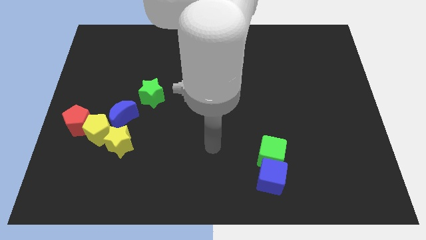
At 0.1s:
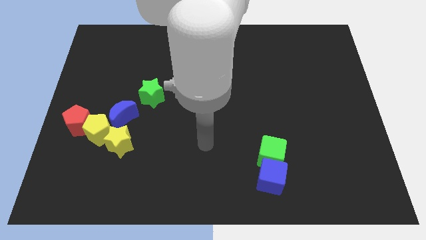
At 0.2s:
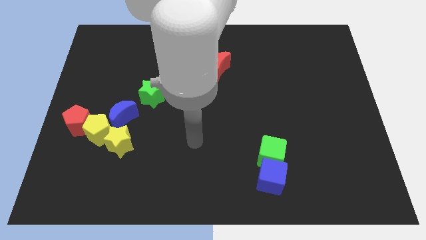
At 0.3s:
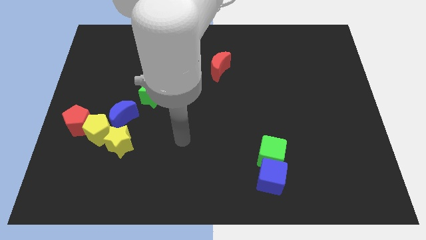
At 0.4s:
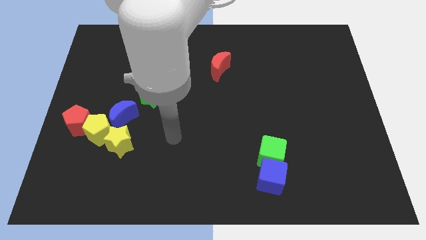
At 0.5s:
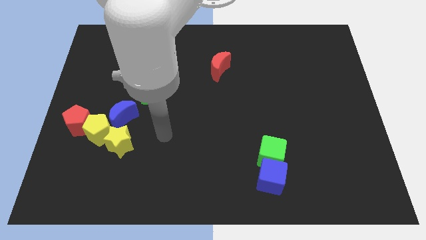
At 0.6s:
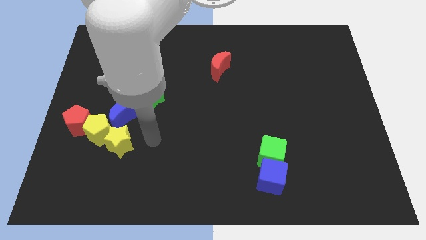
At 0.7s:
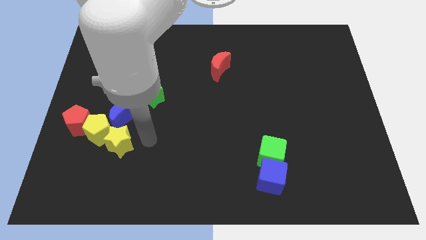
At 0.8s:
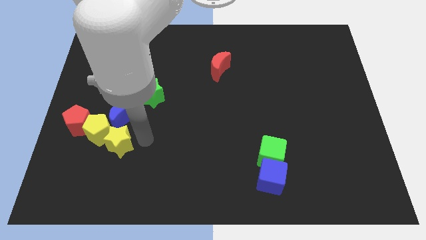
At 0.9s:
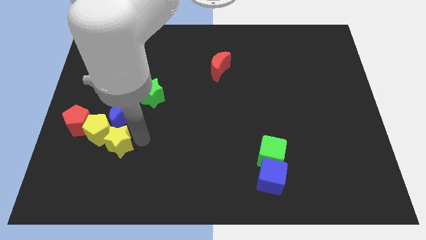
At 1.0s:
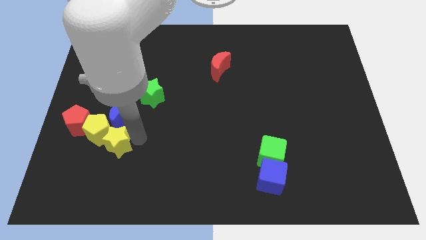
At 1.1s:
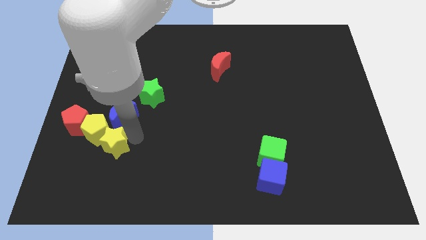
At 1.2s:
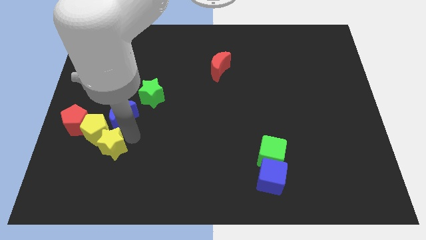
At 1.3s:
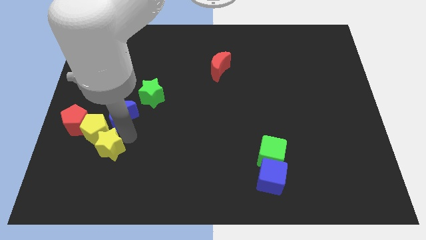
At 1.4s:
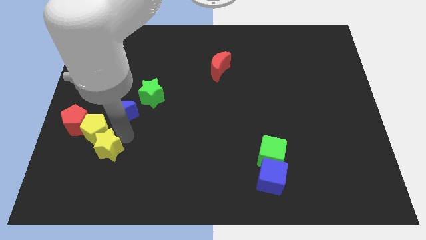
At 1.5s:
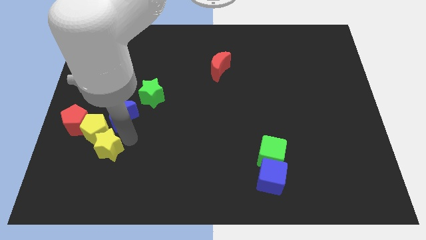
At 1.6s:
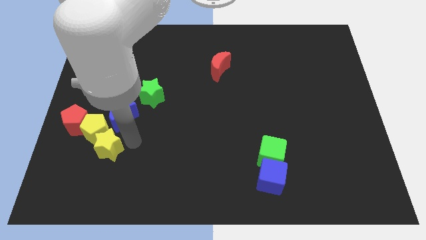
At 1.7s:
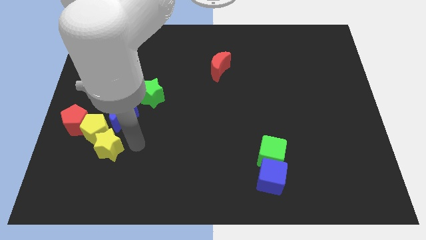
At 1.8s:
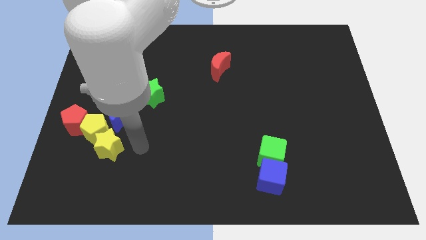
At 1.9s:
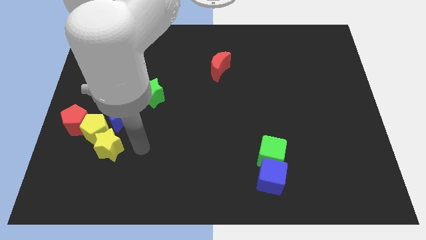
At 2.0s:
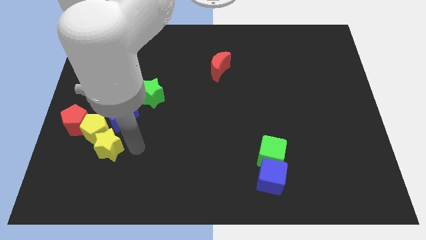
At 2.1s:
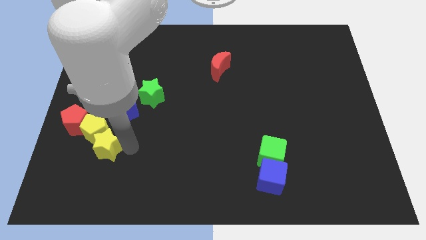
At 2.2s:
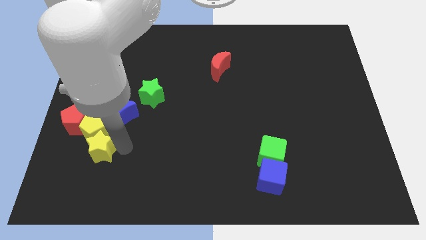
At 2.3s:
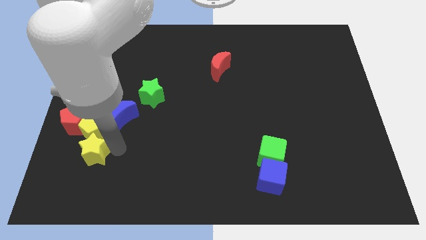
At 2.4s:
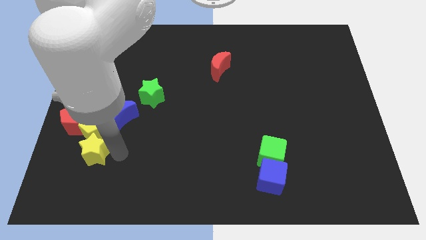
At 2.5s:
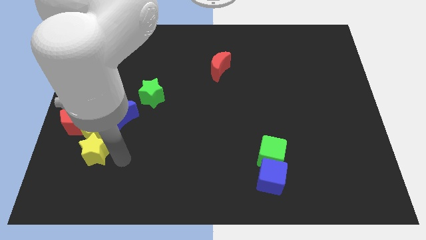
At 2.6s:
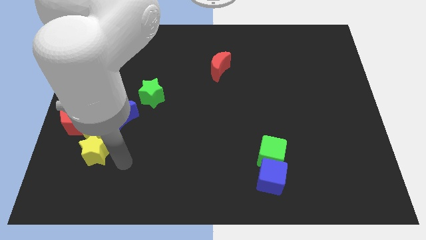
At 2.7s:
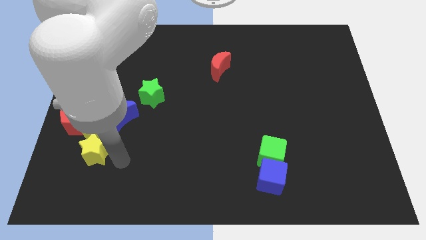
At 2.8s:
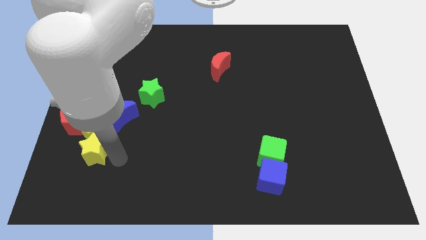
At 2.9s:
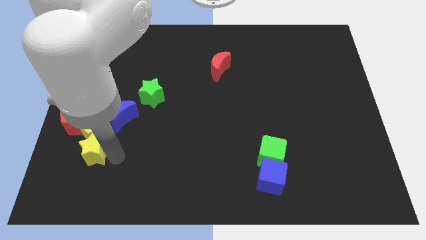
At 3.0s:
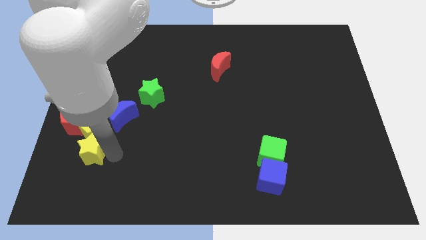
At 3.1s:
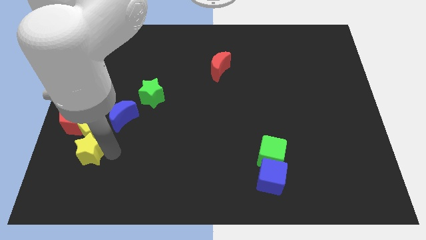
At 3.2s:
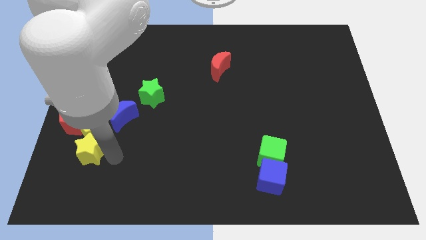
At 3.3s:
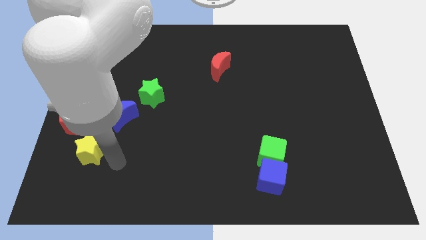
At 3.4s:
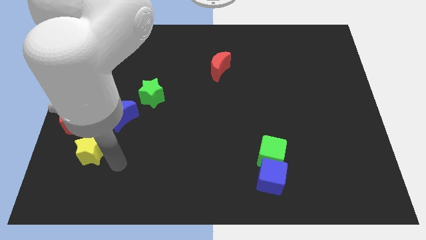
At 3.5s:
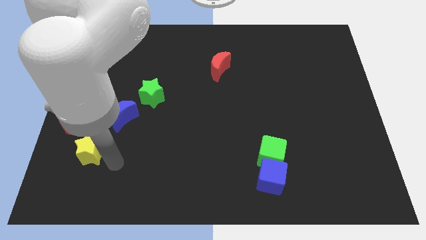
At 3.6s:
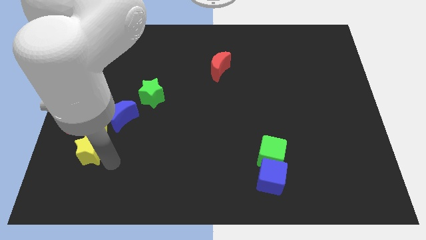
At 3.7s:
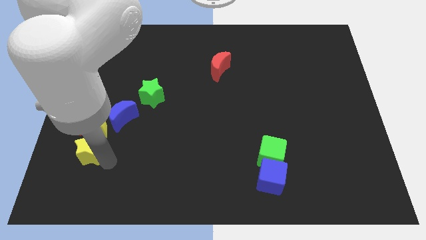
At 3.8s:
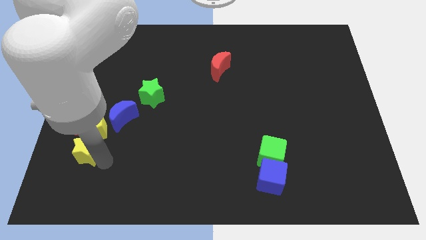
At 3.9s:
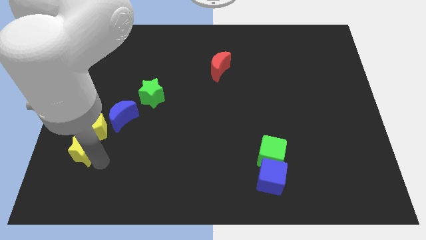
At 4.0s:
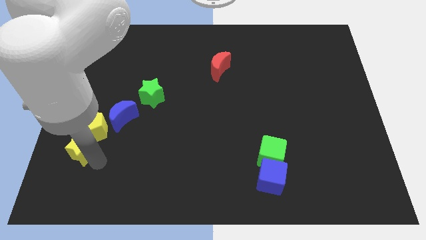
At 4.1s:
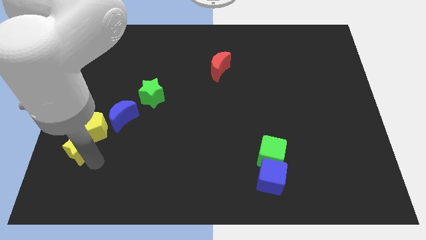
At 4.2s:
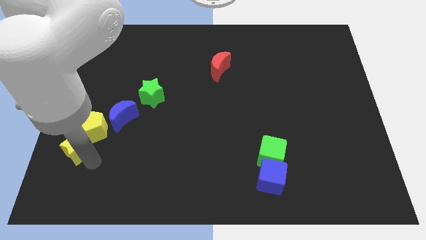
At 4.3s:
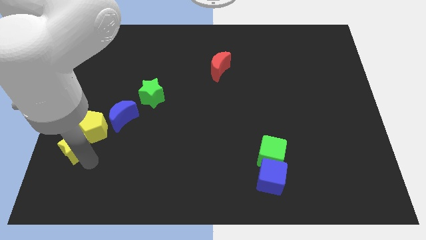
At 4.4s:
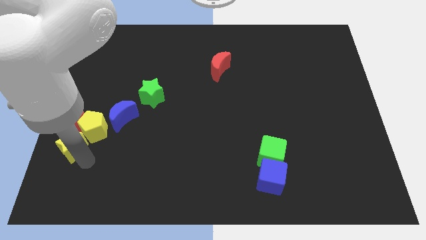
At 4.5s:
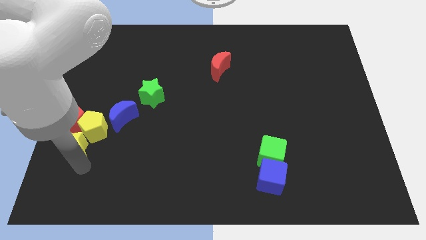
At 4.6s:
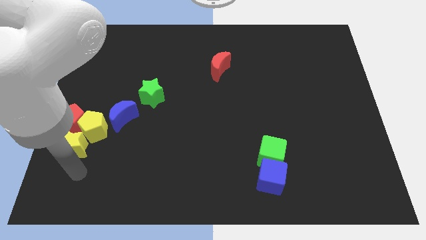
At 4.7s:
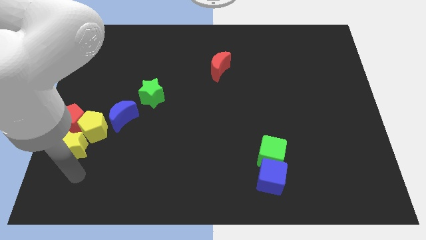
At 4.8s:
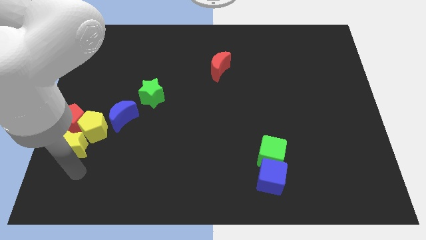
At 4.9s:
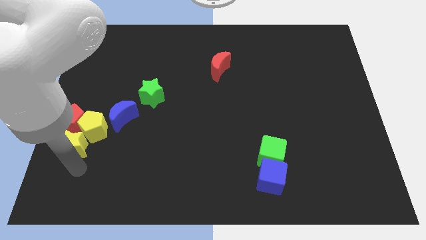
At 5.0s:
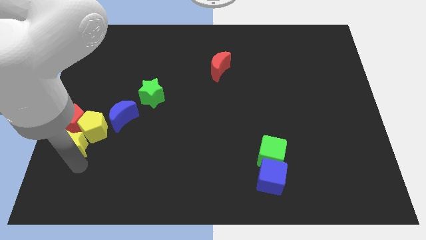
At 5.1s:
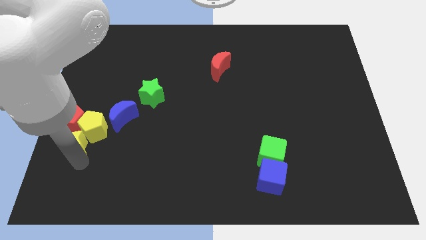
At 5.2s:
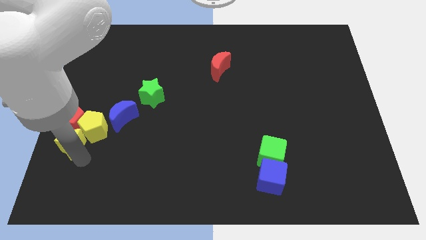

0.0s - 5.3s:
slide the yellow star to the red pentagon

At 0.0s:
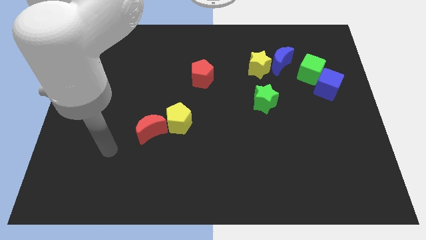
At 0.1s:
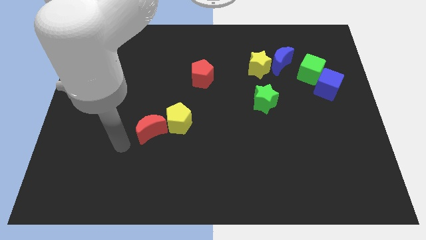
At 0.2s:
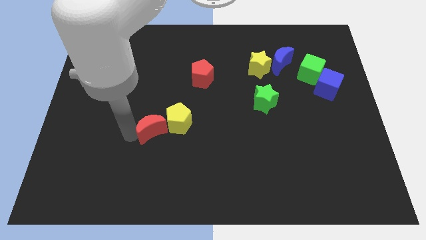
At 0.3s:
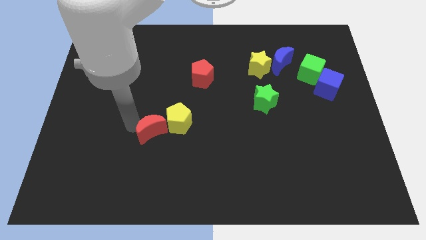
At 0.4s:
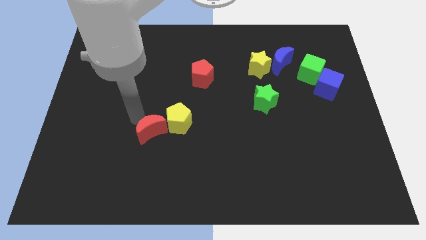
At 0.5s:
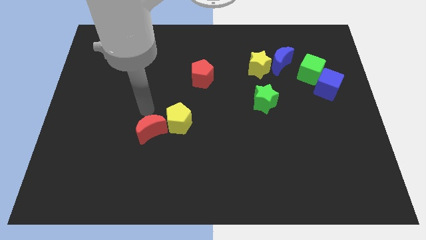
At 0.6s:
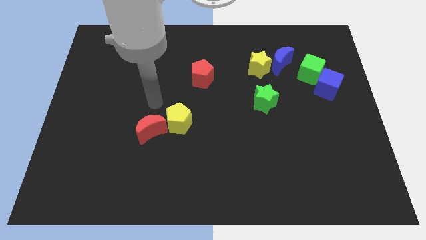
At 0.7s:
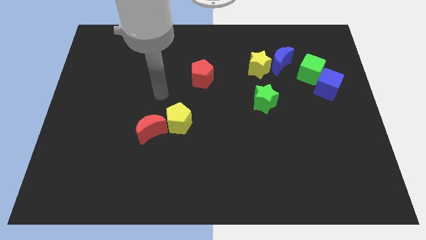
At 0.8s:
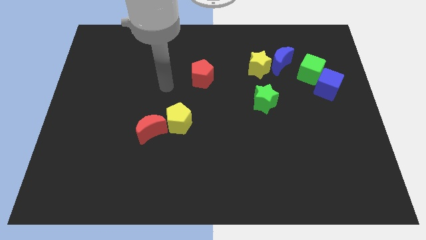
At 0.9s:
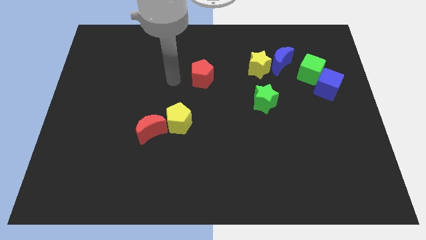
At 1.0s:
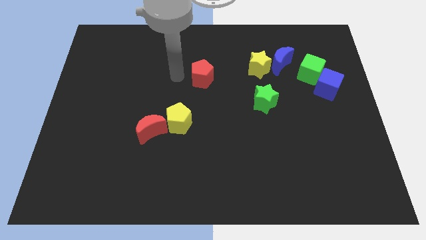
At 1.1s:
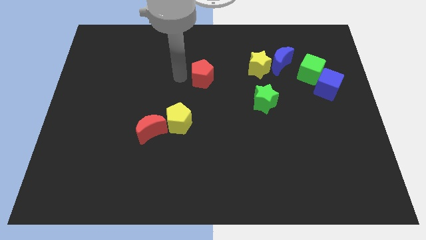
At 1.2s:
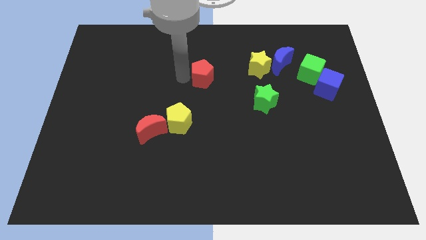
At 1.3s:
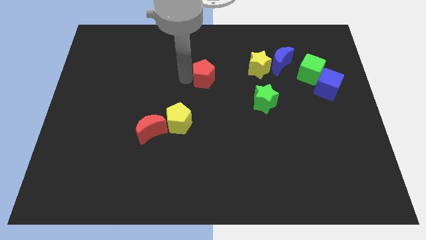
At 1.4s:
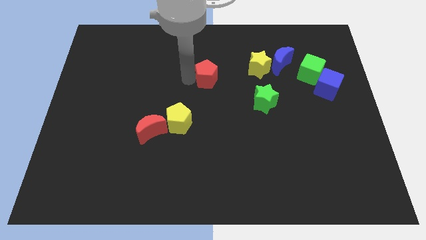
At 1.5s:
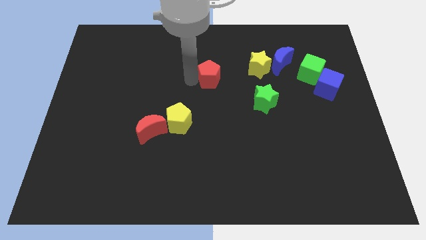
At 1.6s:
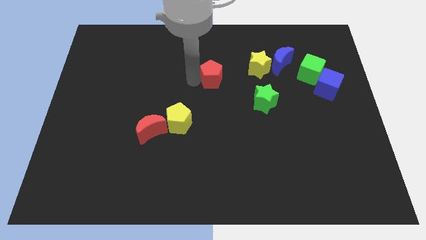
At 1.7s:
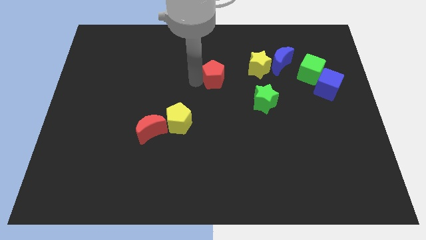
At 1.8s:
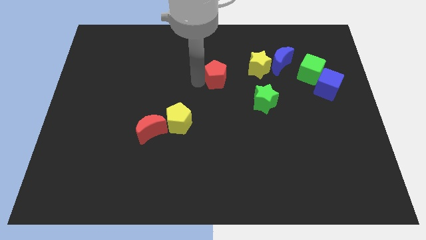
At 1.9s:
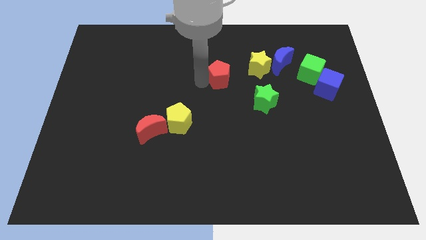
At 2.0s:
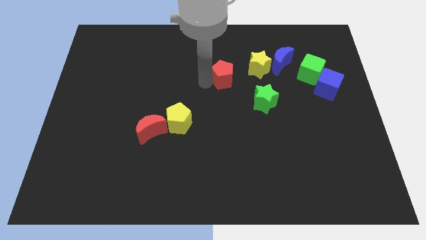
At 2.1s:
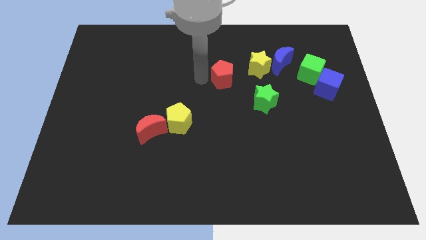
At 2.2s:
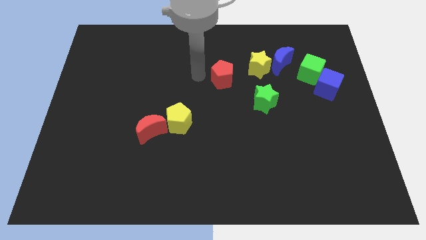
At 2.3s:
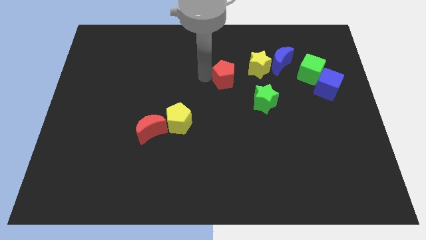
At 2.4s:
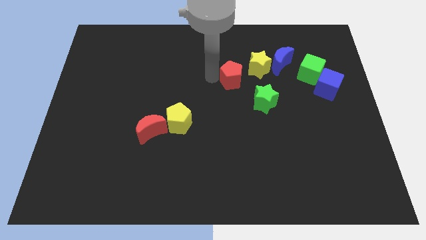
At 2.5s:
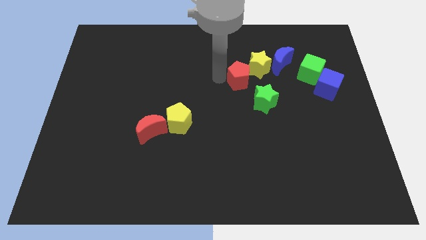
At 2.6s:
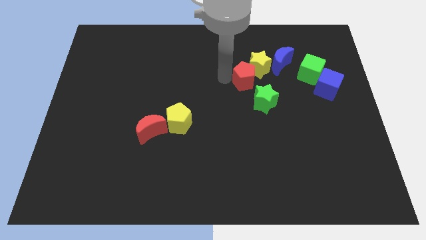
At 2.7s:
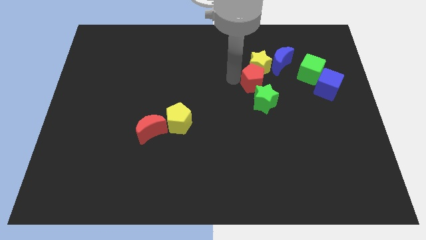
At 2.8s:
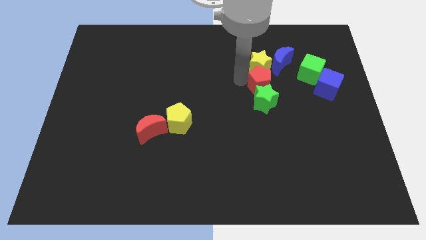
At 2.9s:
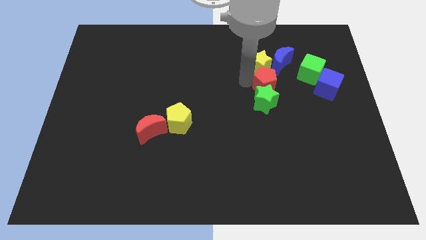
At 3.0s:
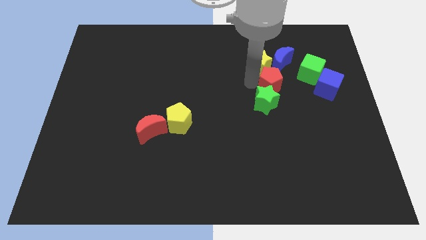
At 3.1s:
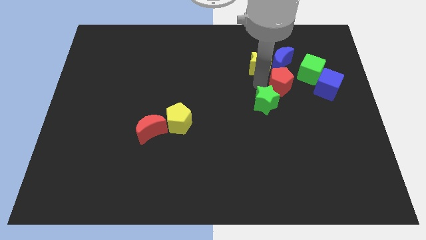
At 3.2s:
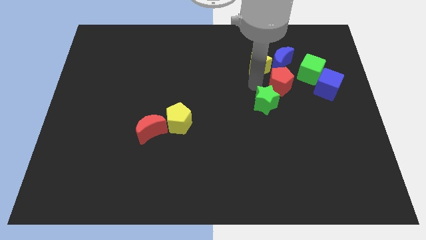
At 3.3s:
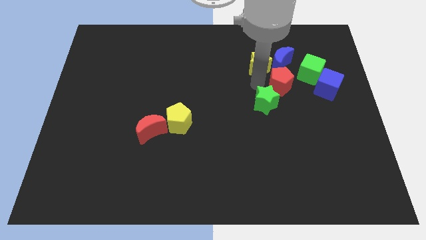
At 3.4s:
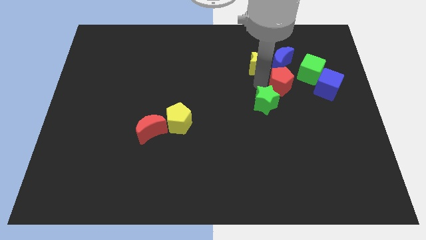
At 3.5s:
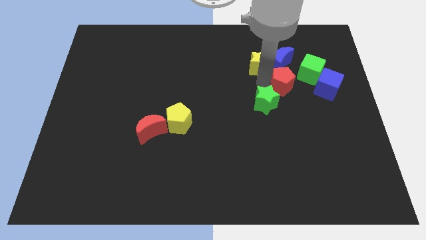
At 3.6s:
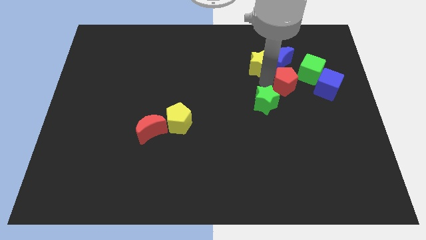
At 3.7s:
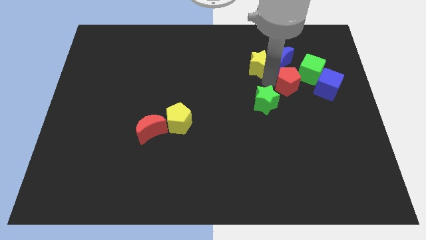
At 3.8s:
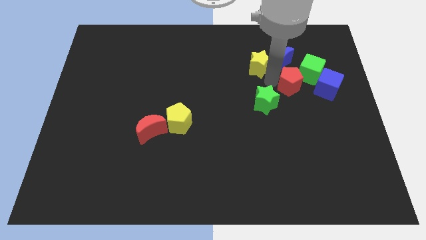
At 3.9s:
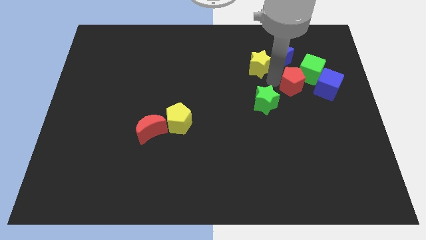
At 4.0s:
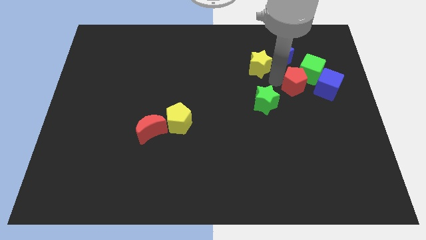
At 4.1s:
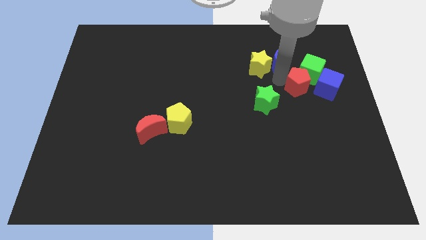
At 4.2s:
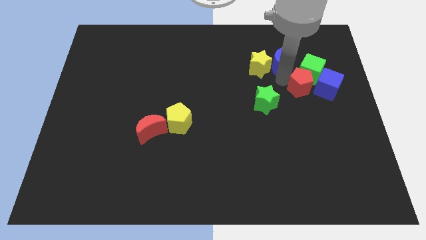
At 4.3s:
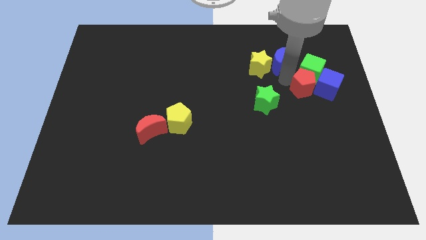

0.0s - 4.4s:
move the red pentagon close to the blue cube
